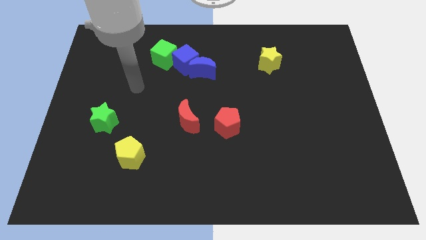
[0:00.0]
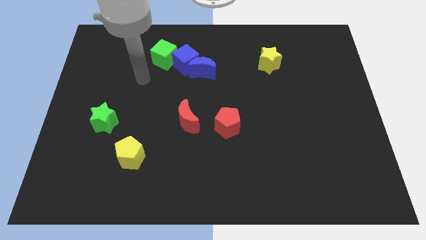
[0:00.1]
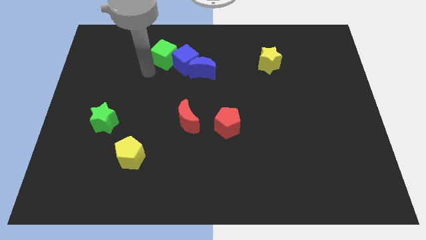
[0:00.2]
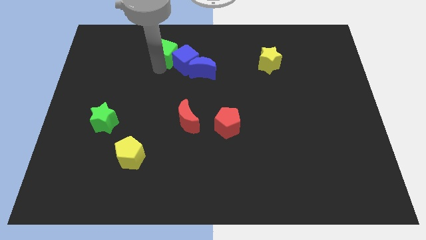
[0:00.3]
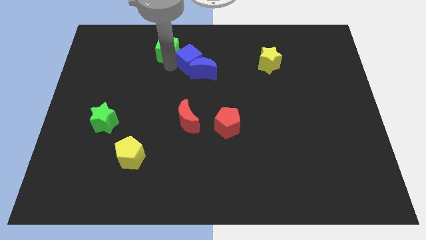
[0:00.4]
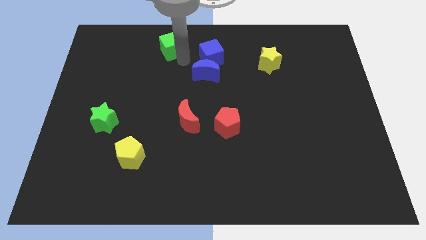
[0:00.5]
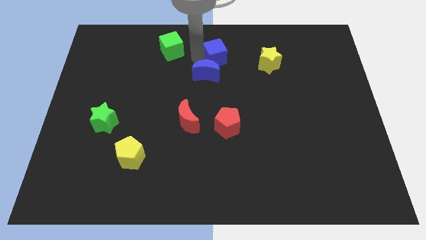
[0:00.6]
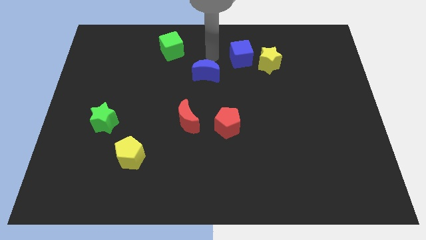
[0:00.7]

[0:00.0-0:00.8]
move the blue moon away from the blue cube

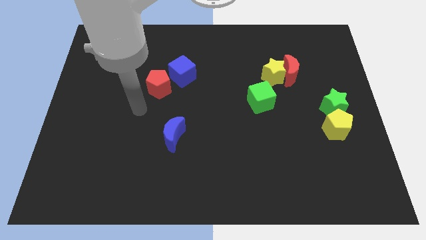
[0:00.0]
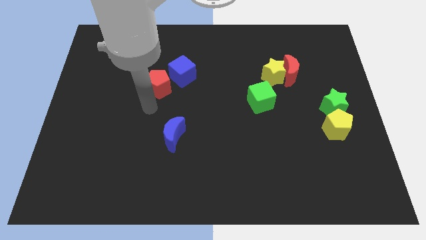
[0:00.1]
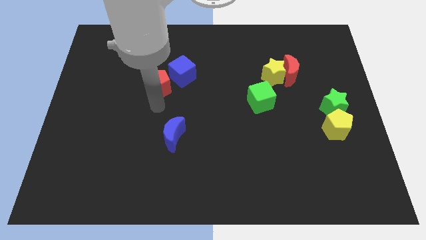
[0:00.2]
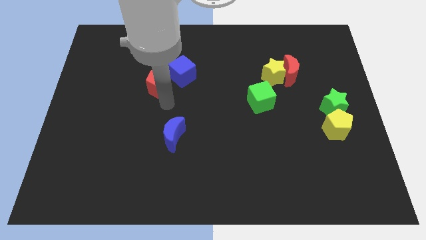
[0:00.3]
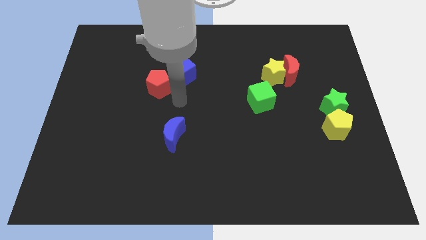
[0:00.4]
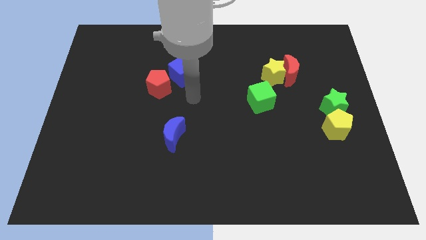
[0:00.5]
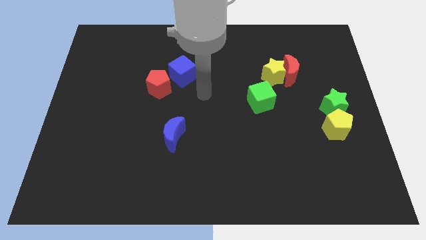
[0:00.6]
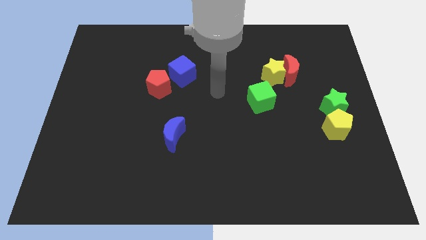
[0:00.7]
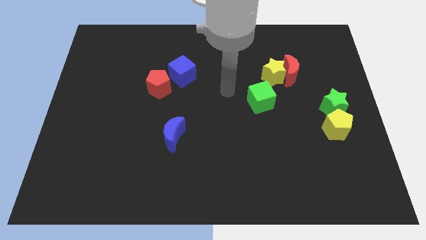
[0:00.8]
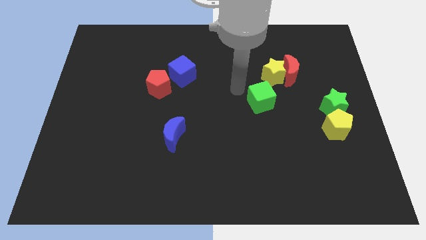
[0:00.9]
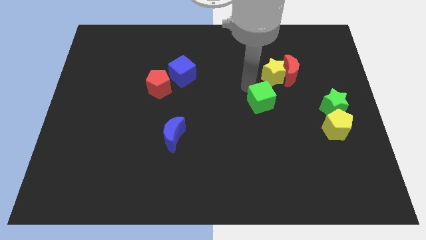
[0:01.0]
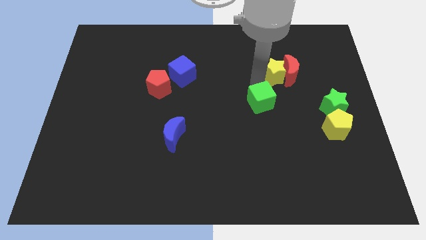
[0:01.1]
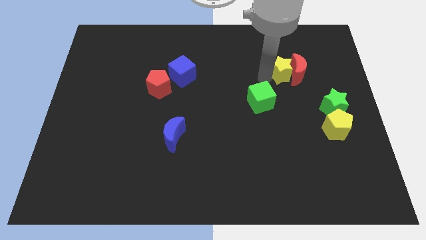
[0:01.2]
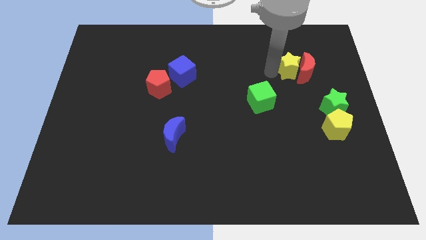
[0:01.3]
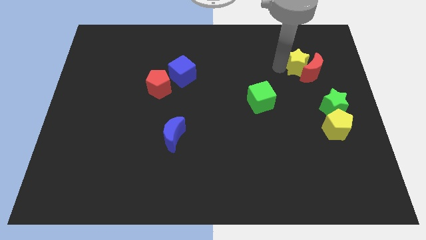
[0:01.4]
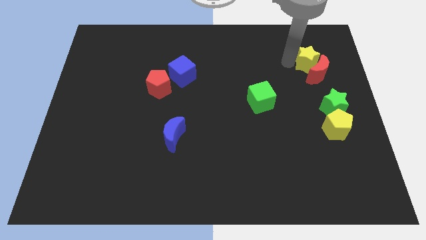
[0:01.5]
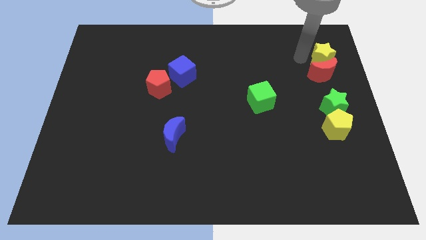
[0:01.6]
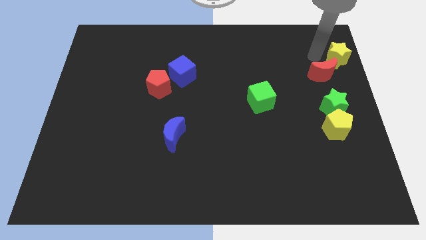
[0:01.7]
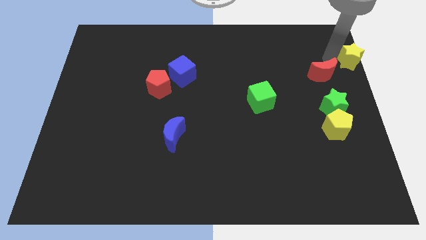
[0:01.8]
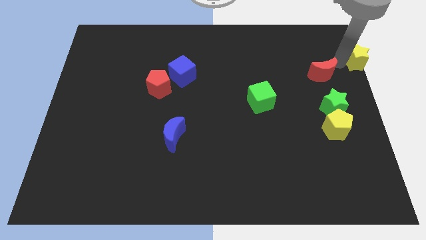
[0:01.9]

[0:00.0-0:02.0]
move the red moon away from the yellow star

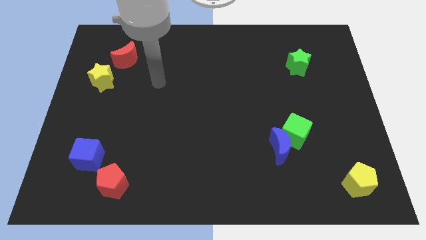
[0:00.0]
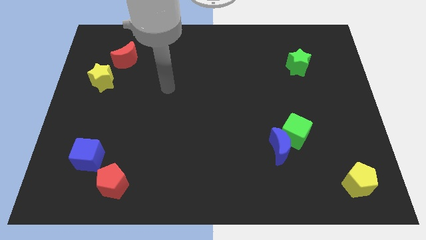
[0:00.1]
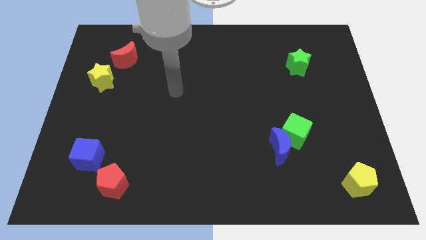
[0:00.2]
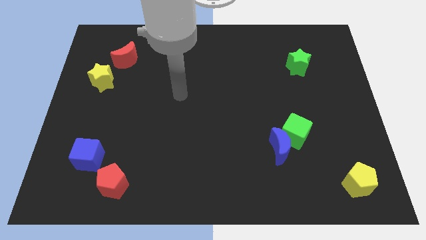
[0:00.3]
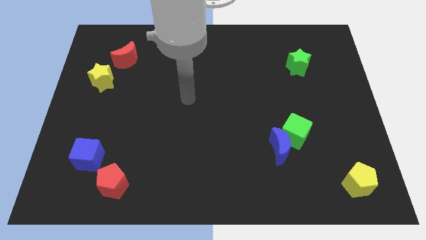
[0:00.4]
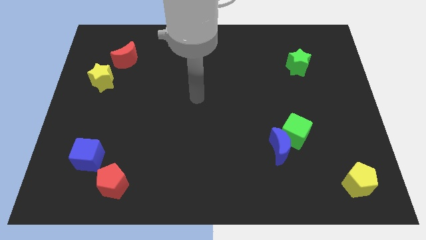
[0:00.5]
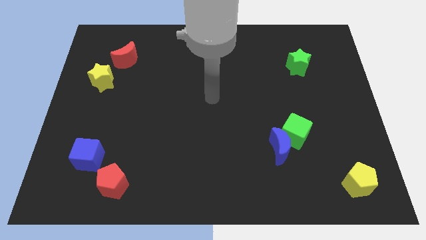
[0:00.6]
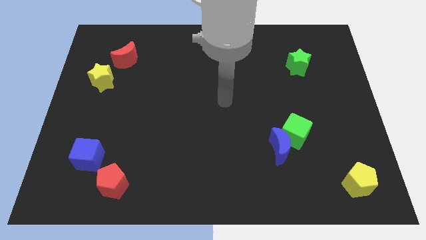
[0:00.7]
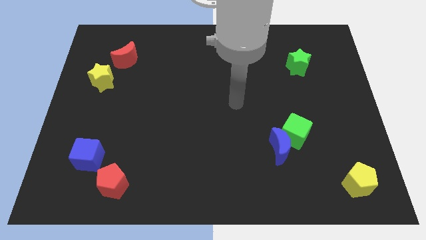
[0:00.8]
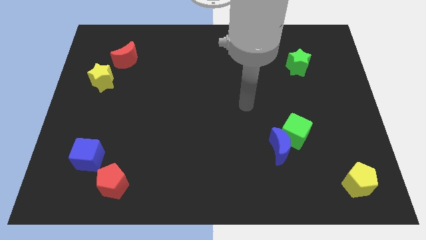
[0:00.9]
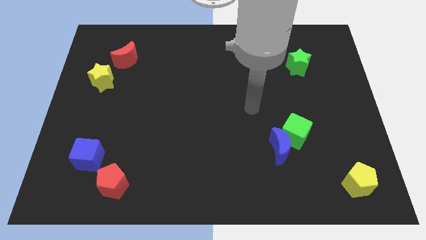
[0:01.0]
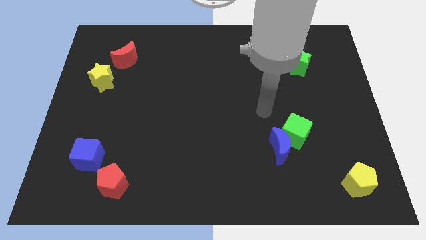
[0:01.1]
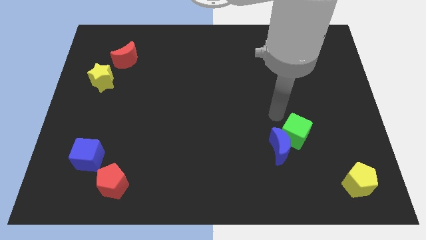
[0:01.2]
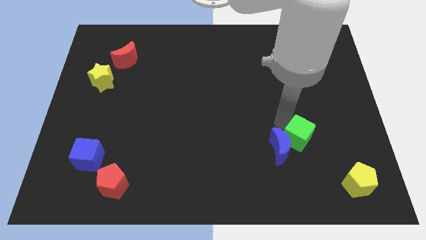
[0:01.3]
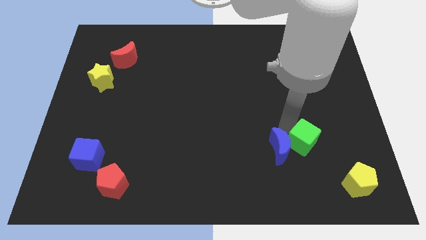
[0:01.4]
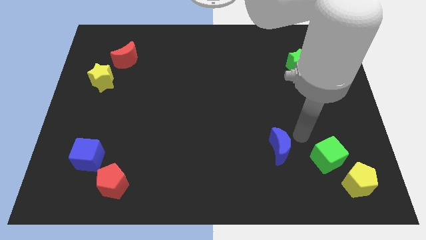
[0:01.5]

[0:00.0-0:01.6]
move the blue moon away from the green cube

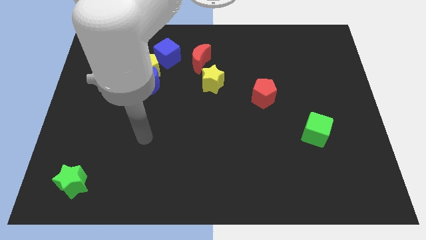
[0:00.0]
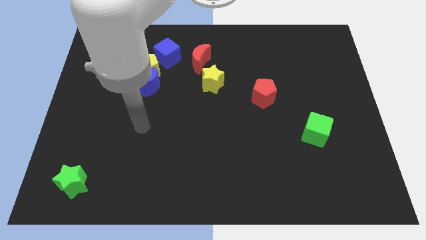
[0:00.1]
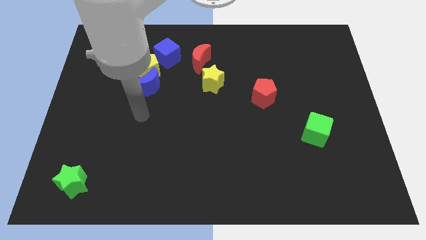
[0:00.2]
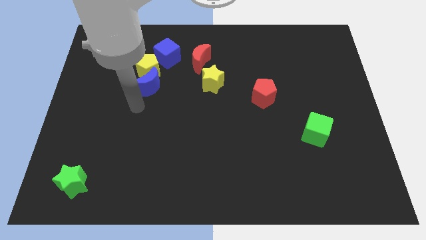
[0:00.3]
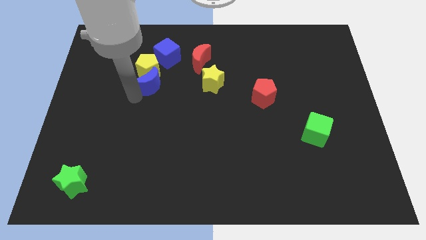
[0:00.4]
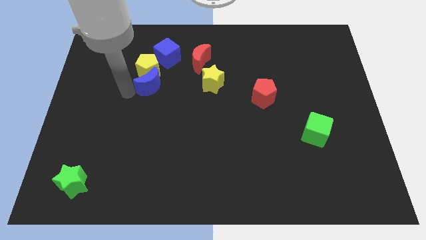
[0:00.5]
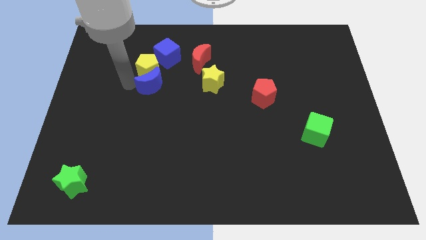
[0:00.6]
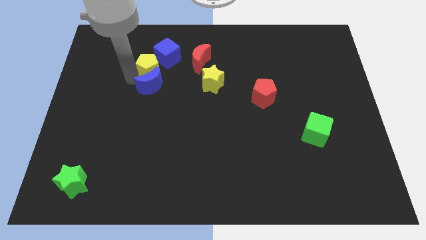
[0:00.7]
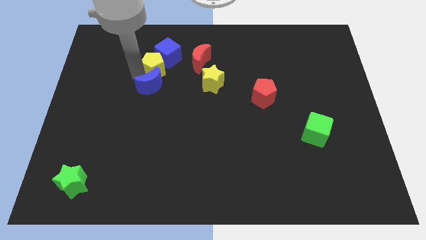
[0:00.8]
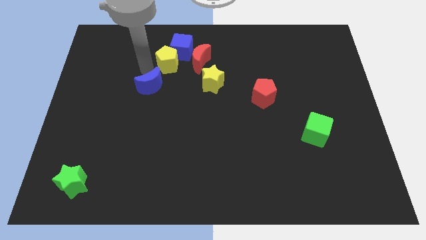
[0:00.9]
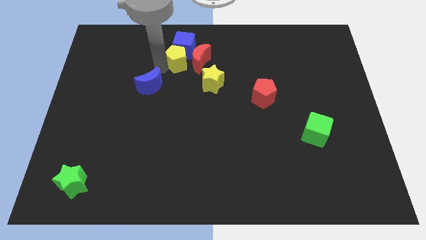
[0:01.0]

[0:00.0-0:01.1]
move the blue moon away from the yellow pentagon

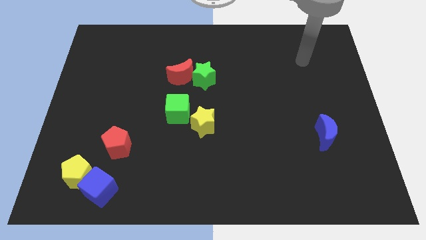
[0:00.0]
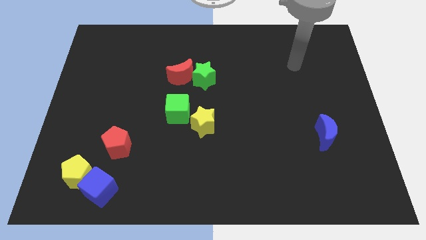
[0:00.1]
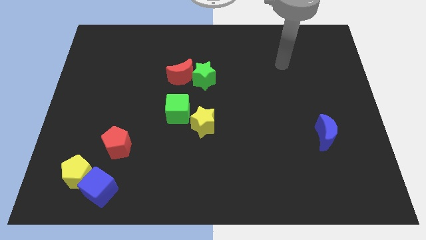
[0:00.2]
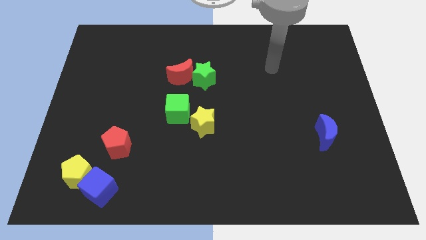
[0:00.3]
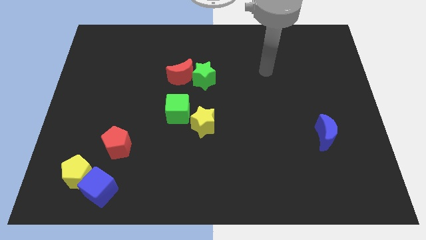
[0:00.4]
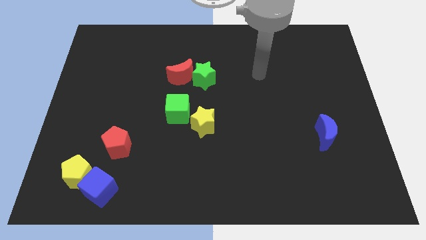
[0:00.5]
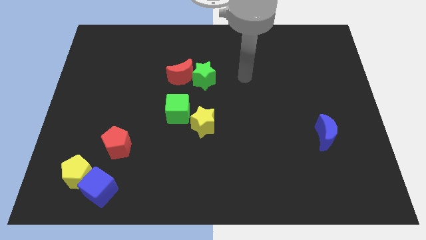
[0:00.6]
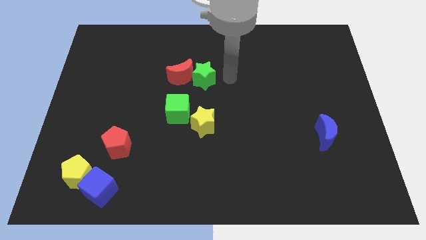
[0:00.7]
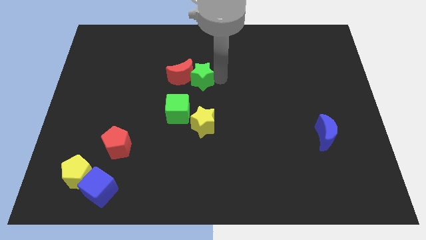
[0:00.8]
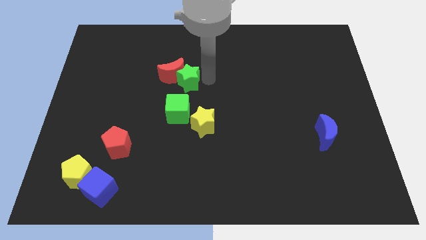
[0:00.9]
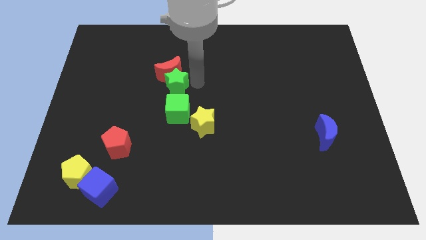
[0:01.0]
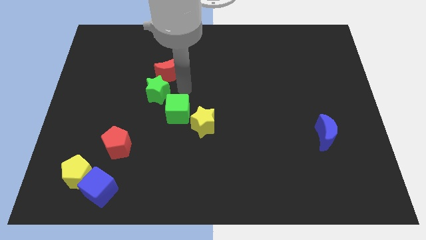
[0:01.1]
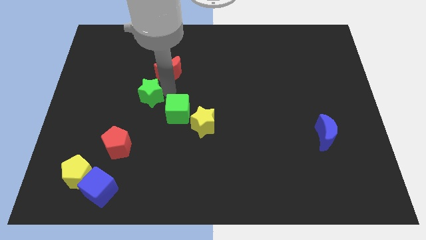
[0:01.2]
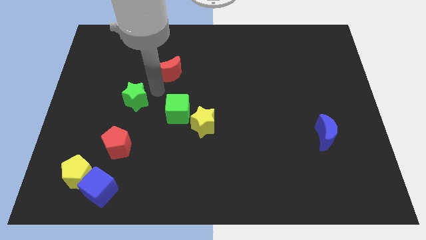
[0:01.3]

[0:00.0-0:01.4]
pull the red moon apart from the green star

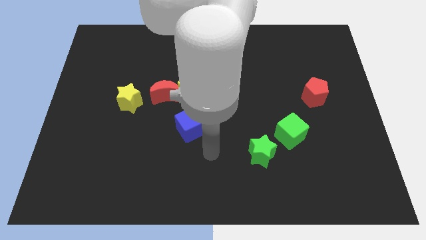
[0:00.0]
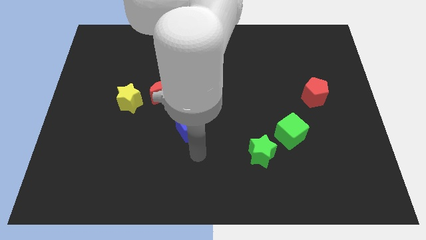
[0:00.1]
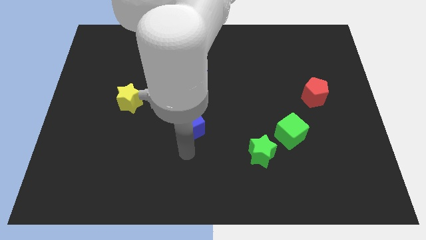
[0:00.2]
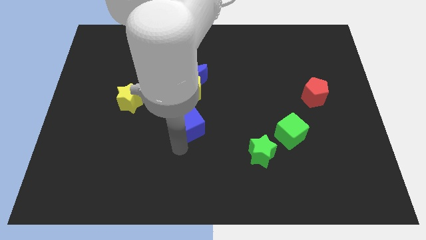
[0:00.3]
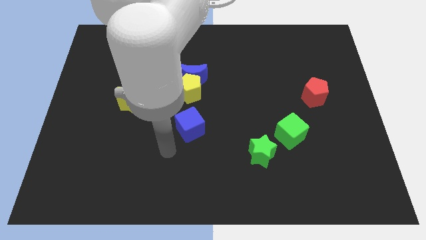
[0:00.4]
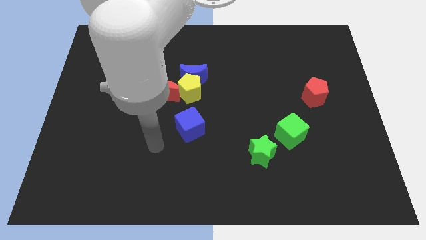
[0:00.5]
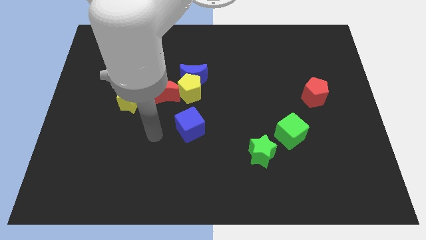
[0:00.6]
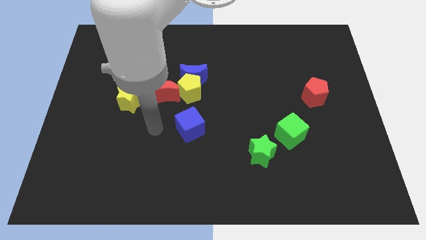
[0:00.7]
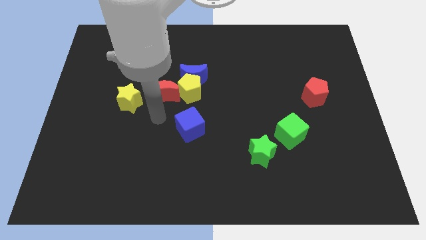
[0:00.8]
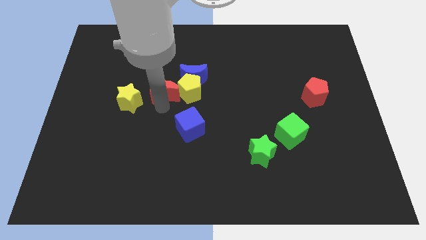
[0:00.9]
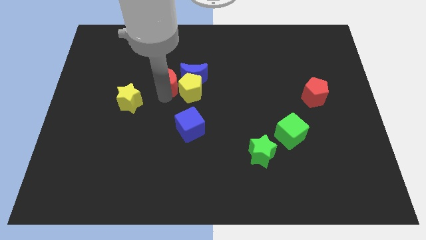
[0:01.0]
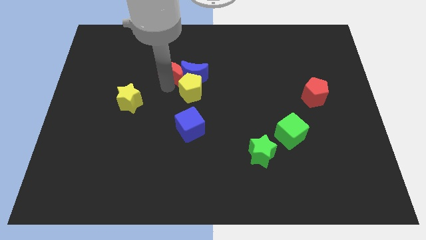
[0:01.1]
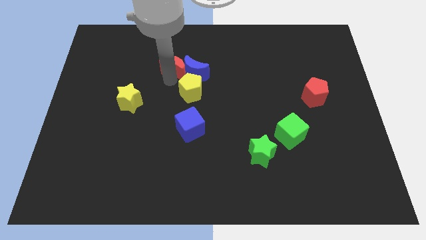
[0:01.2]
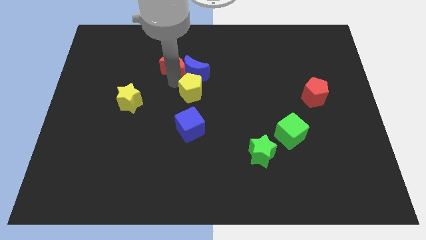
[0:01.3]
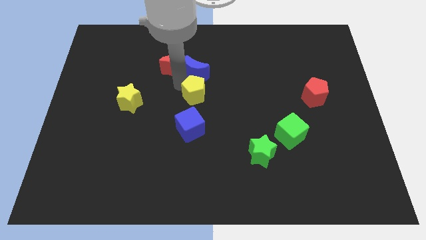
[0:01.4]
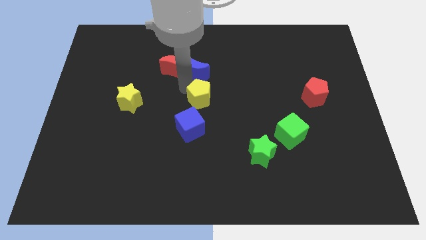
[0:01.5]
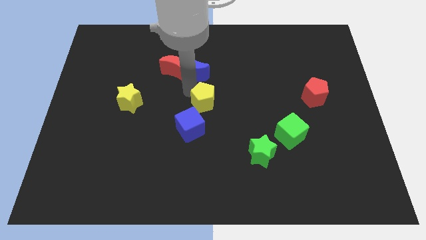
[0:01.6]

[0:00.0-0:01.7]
separate the yellow pentagon from the blue moon and red moon

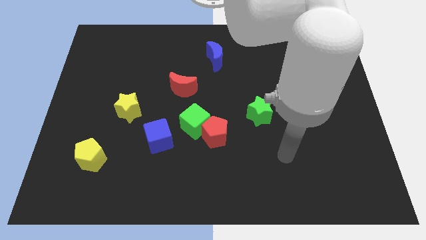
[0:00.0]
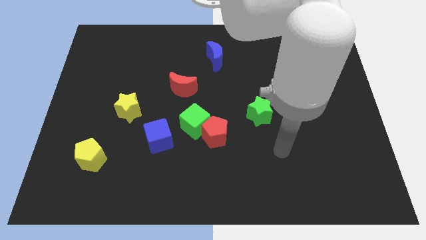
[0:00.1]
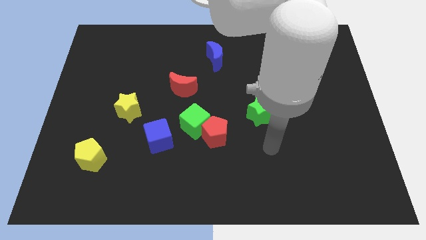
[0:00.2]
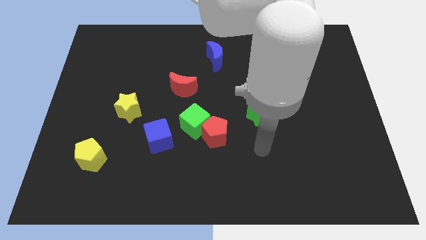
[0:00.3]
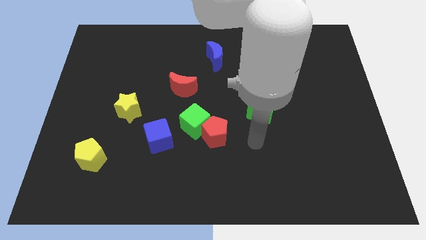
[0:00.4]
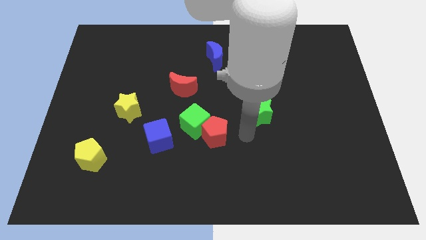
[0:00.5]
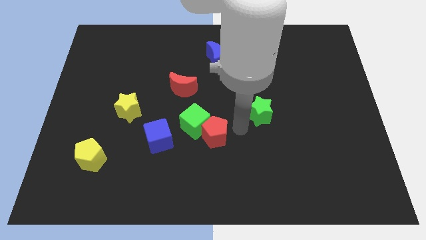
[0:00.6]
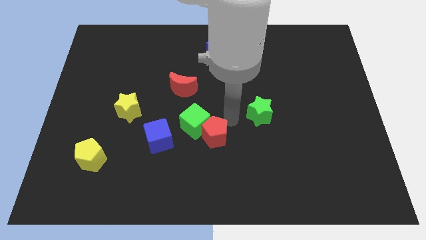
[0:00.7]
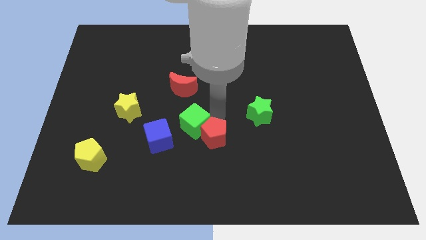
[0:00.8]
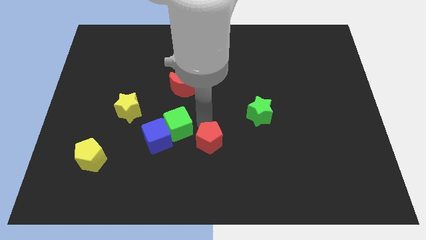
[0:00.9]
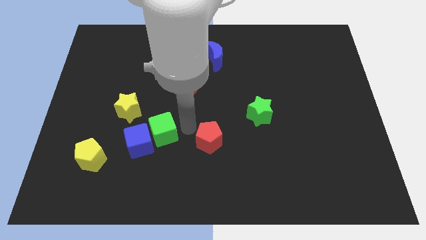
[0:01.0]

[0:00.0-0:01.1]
separate the red pentagon from the green cube
